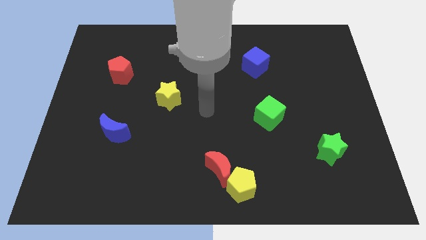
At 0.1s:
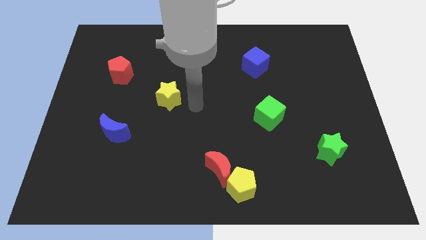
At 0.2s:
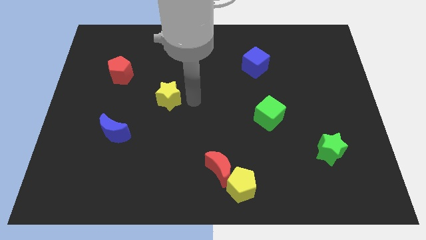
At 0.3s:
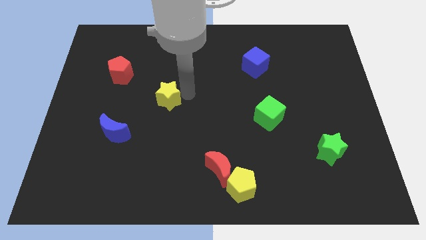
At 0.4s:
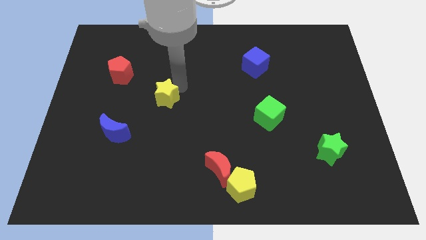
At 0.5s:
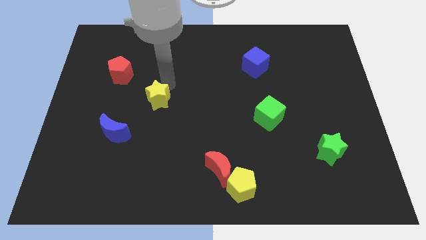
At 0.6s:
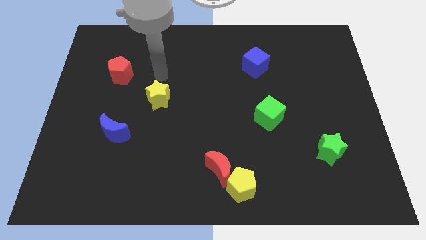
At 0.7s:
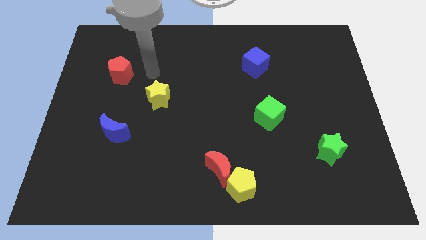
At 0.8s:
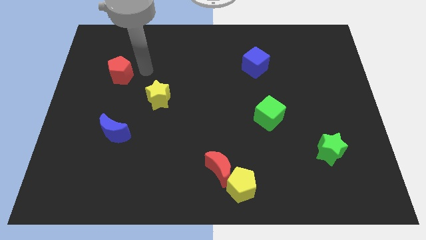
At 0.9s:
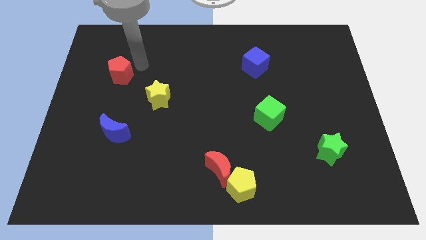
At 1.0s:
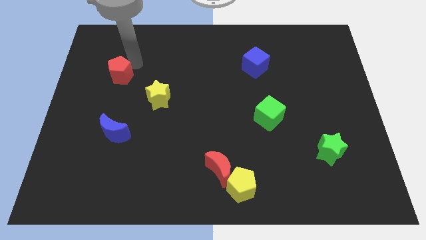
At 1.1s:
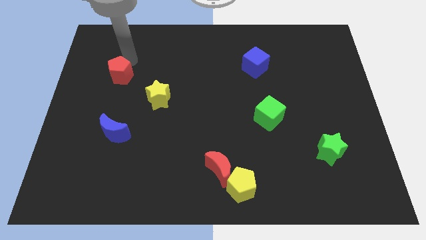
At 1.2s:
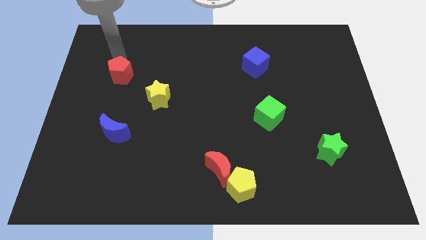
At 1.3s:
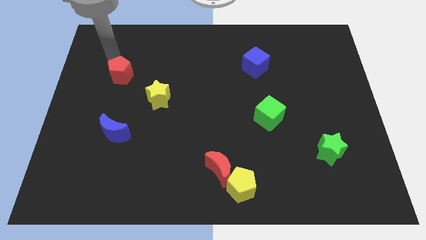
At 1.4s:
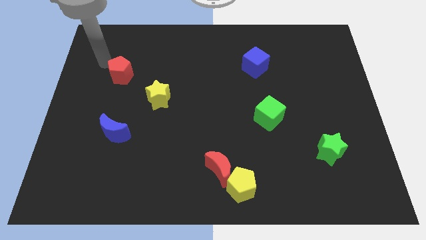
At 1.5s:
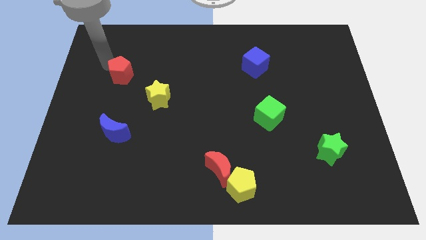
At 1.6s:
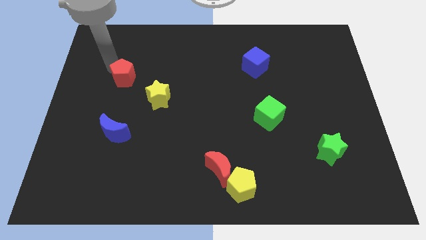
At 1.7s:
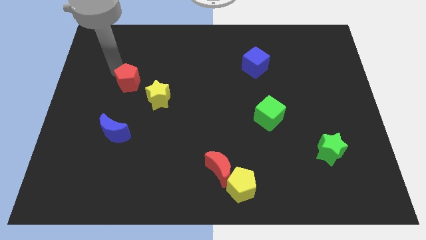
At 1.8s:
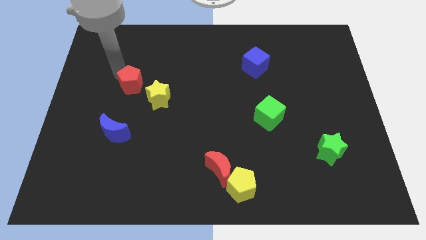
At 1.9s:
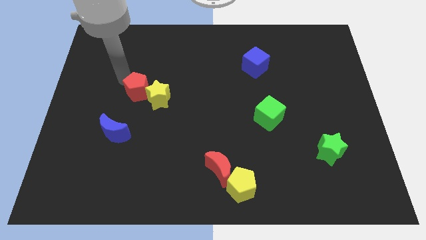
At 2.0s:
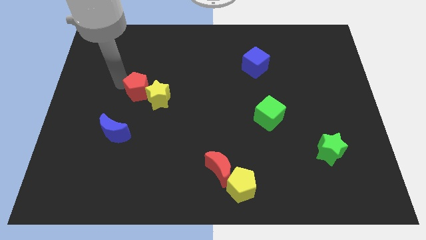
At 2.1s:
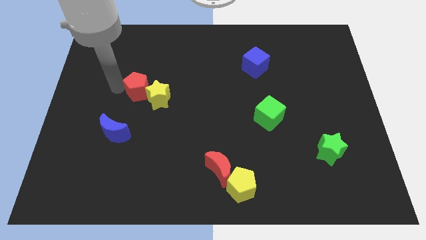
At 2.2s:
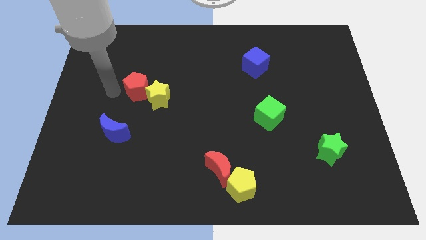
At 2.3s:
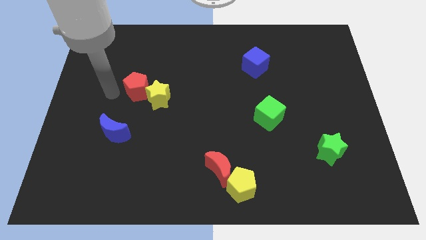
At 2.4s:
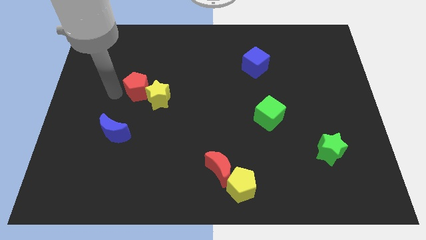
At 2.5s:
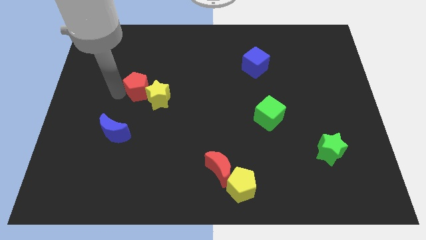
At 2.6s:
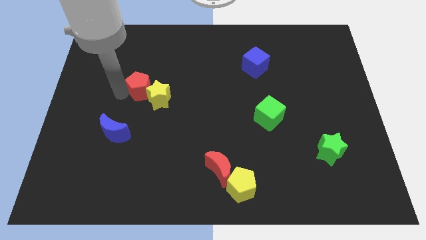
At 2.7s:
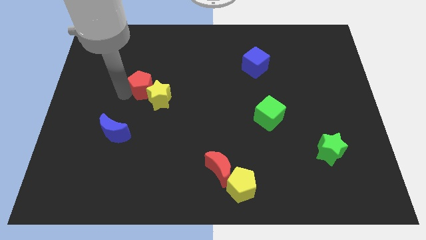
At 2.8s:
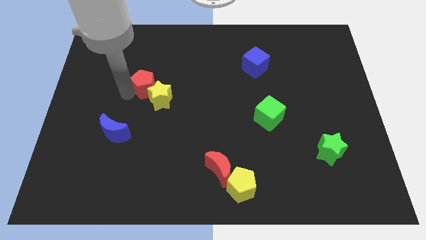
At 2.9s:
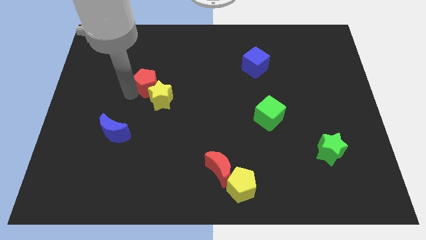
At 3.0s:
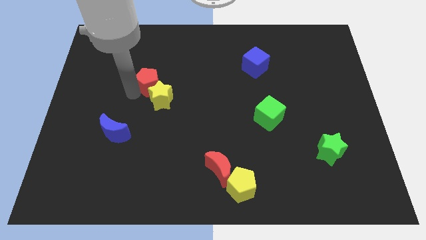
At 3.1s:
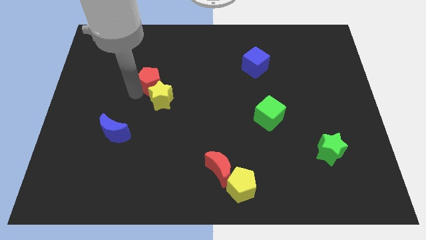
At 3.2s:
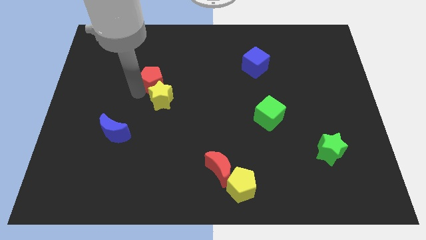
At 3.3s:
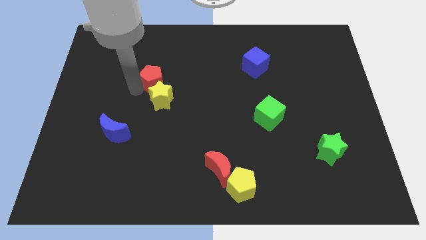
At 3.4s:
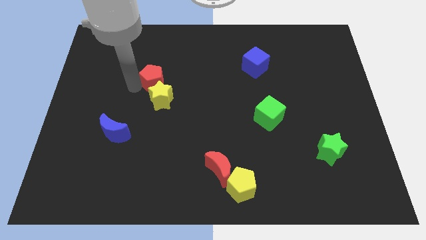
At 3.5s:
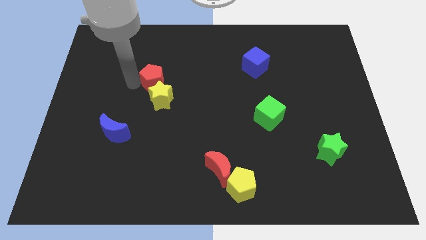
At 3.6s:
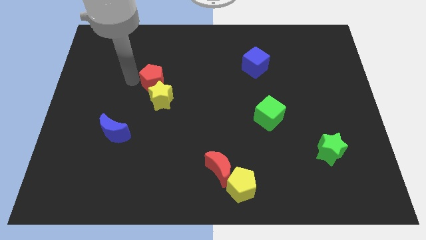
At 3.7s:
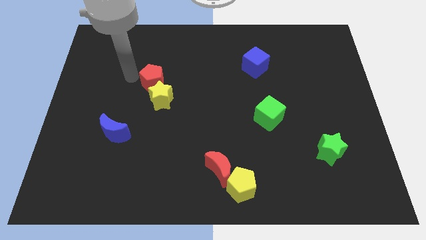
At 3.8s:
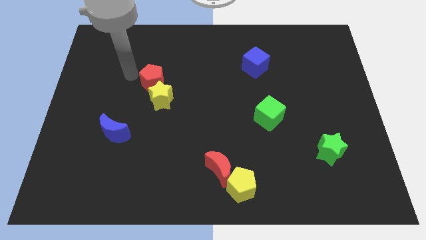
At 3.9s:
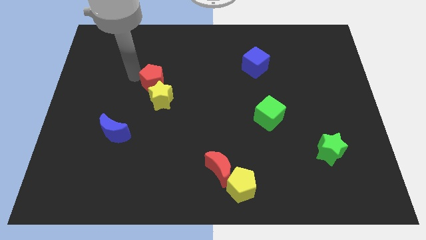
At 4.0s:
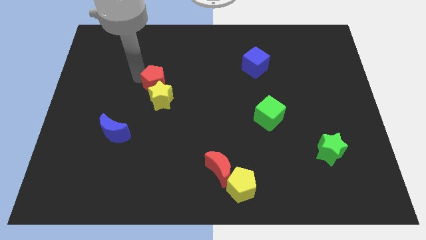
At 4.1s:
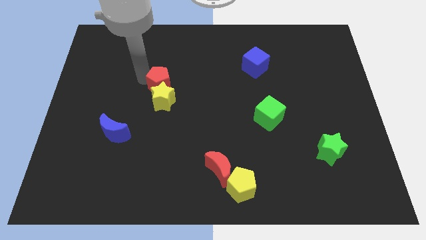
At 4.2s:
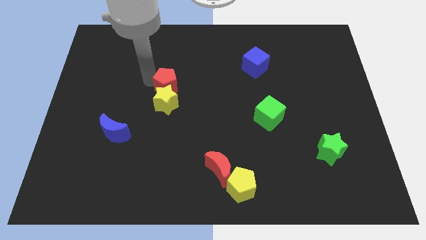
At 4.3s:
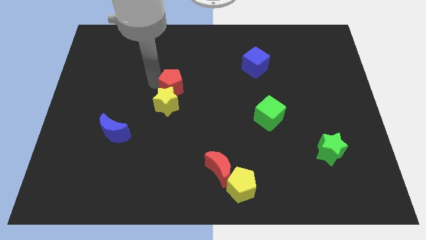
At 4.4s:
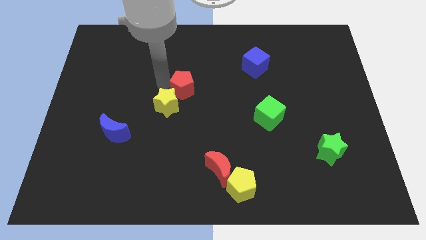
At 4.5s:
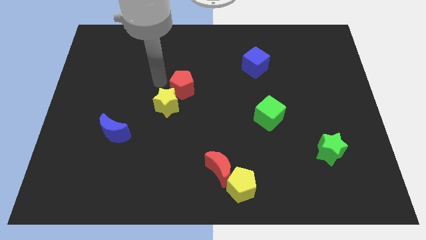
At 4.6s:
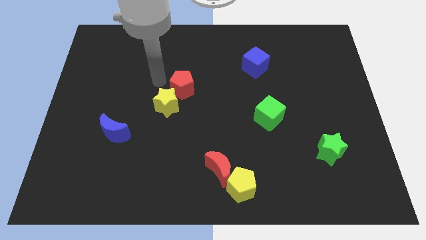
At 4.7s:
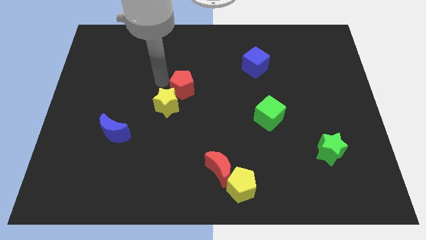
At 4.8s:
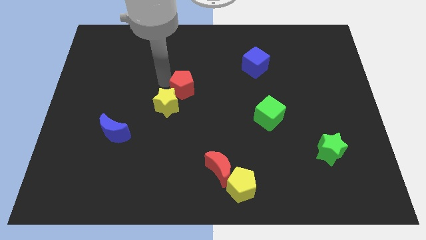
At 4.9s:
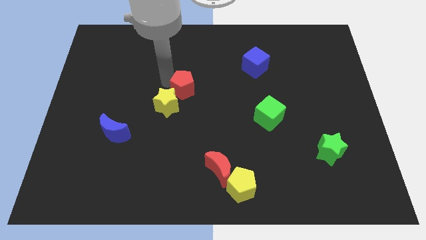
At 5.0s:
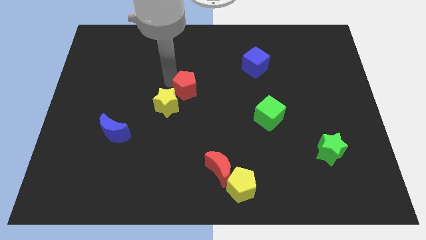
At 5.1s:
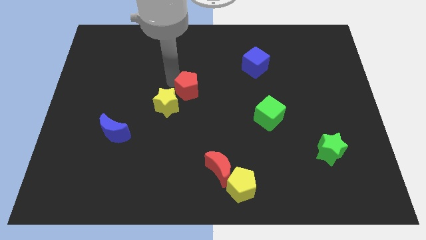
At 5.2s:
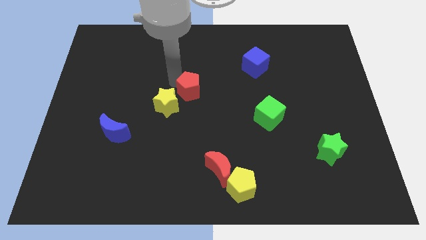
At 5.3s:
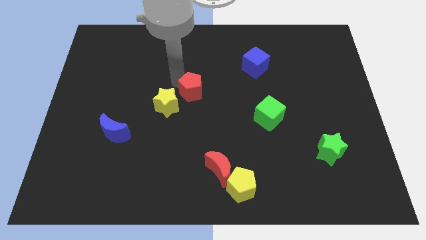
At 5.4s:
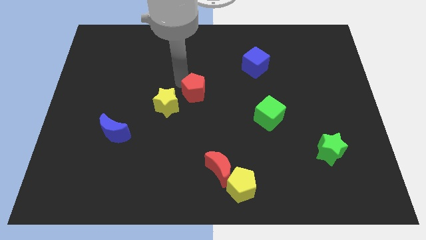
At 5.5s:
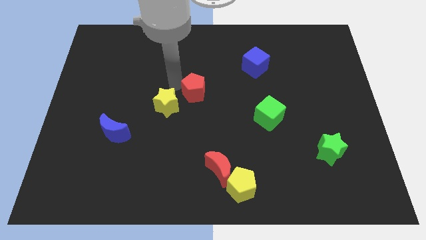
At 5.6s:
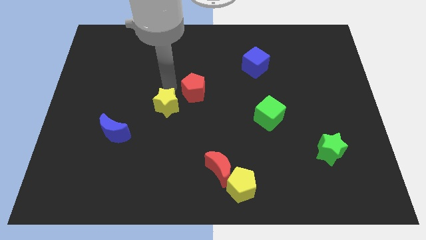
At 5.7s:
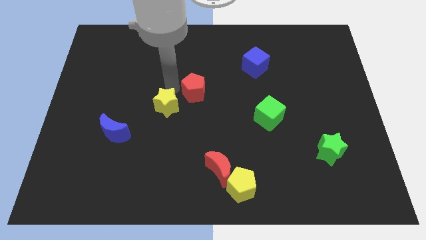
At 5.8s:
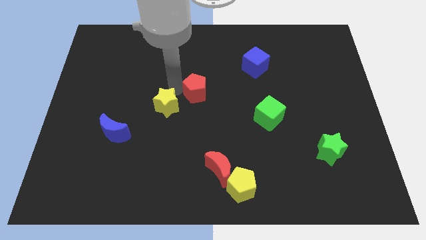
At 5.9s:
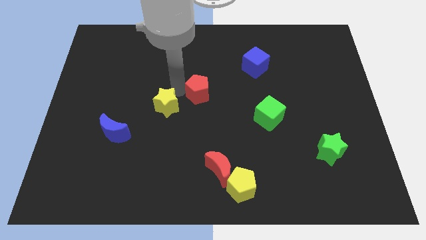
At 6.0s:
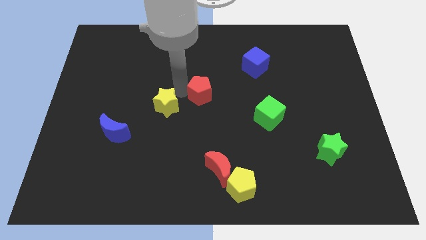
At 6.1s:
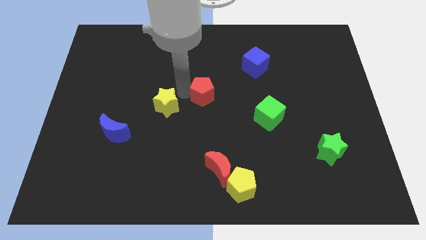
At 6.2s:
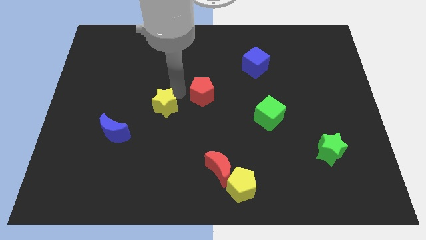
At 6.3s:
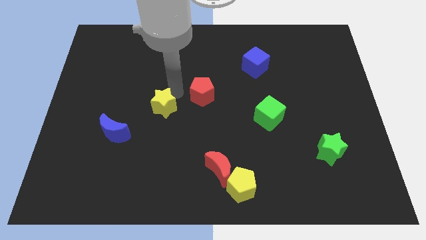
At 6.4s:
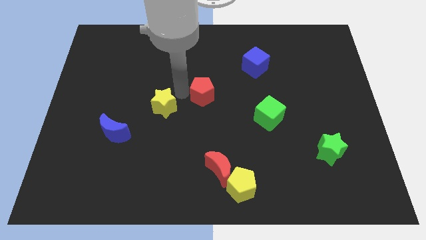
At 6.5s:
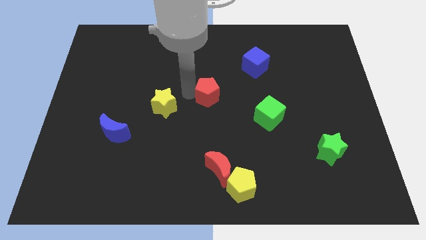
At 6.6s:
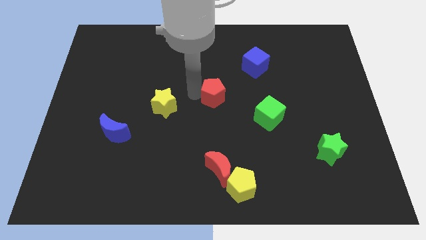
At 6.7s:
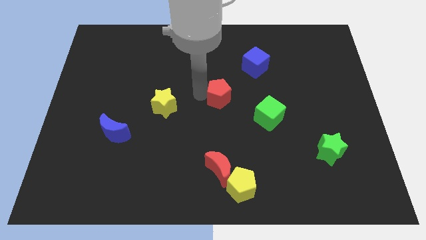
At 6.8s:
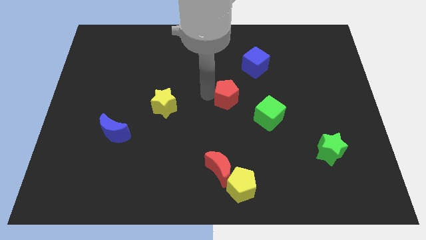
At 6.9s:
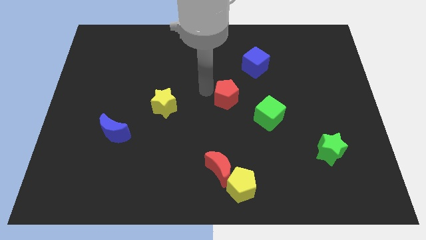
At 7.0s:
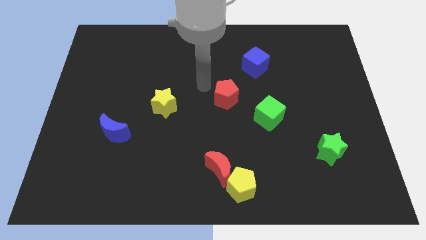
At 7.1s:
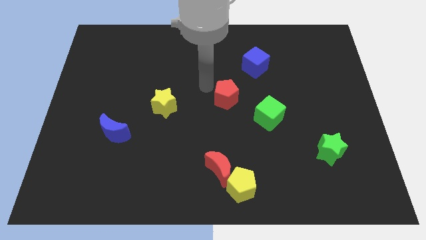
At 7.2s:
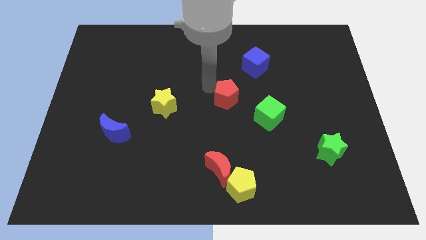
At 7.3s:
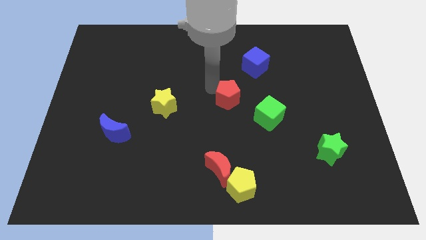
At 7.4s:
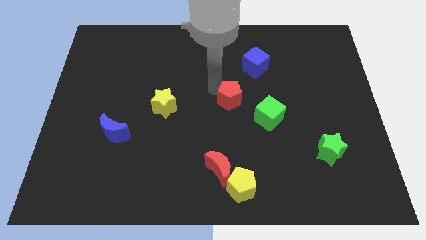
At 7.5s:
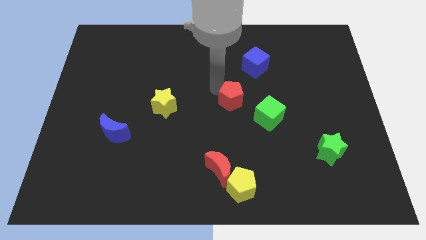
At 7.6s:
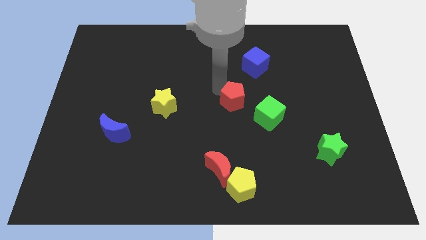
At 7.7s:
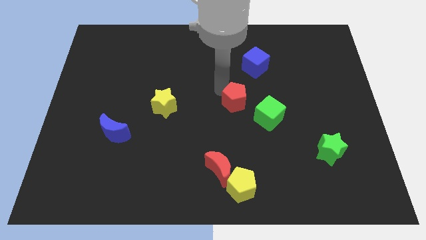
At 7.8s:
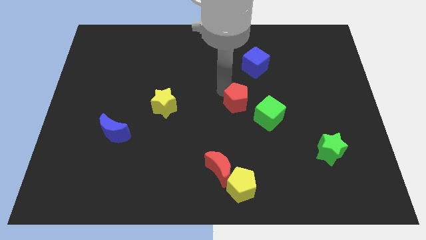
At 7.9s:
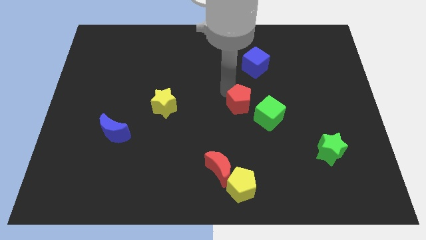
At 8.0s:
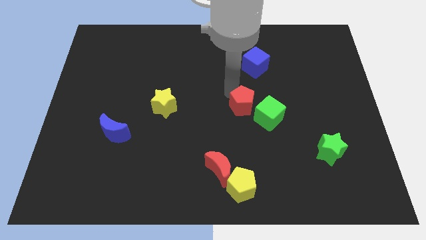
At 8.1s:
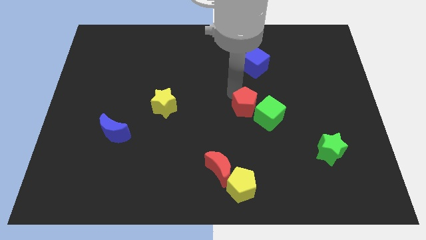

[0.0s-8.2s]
move the red pentagon to the green cube
